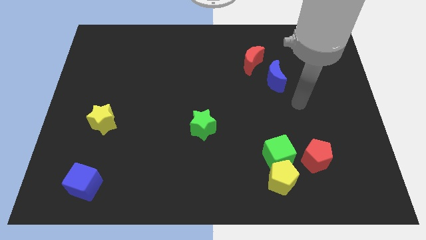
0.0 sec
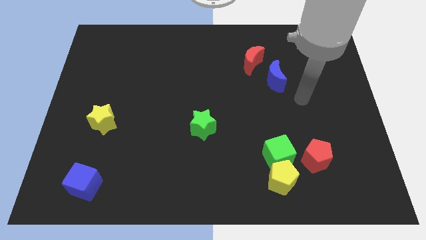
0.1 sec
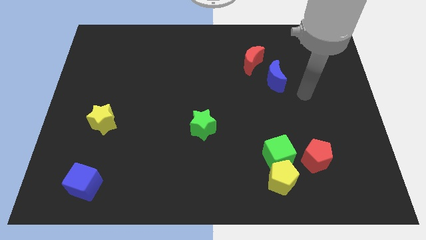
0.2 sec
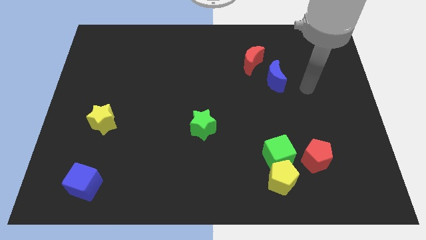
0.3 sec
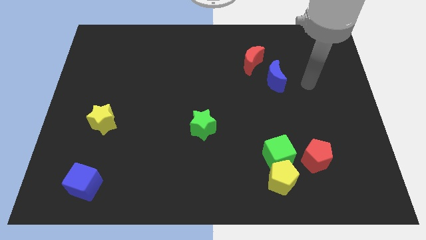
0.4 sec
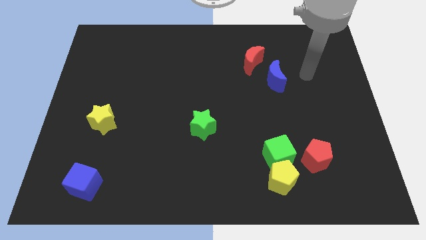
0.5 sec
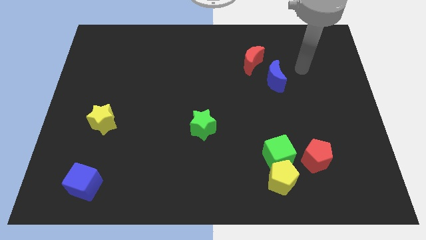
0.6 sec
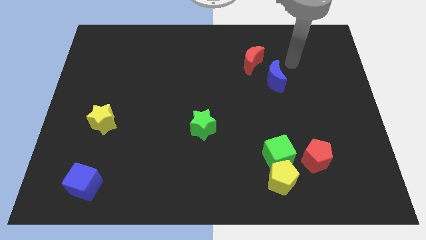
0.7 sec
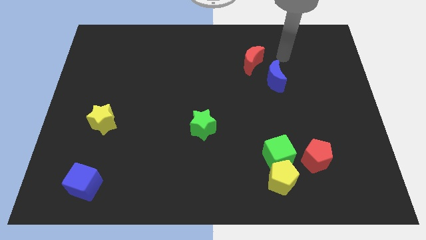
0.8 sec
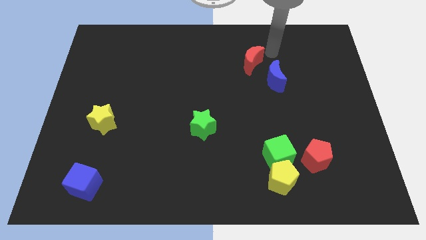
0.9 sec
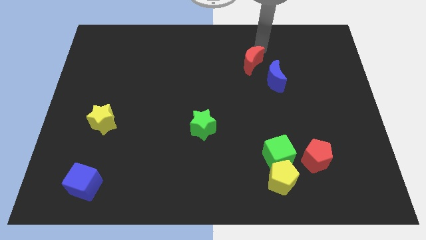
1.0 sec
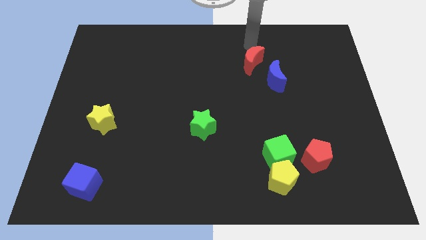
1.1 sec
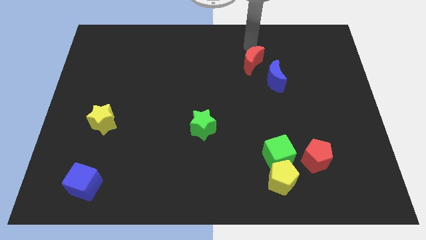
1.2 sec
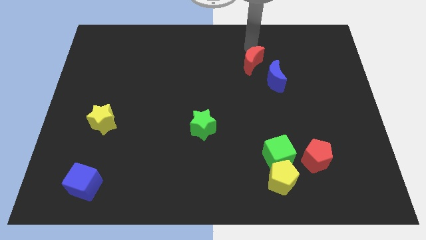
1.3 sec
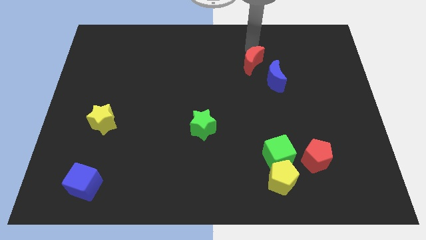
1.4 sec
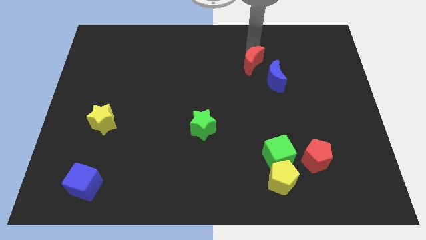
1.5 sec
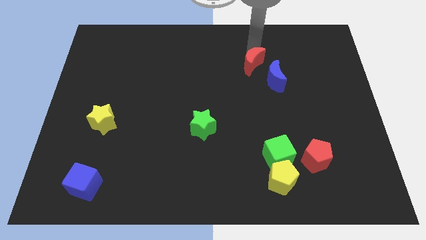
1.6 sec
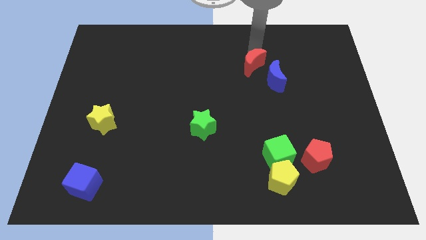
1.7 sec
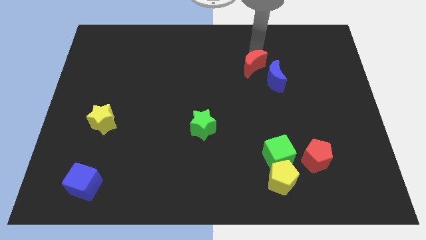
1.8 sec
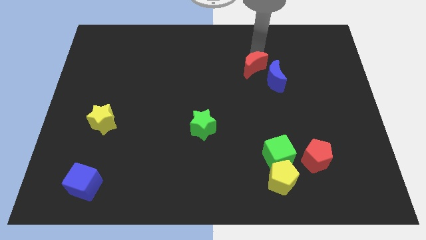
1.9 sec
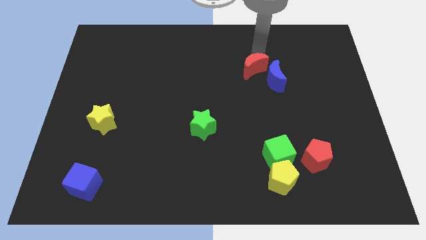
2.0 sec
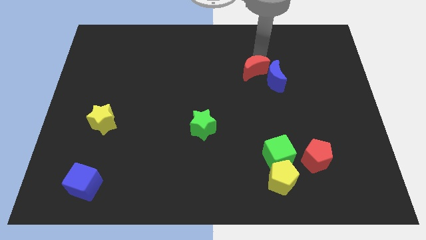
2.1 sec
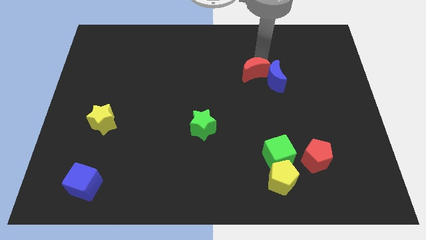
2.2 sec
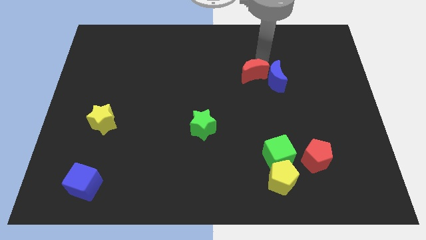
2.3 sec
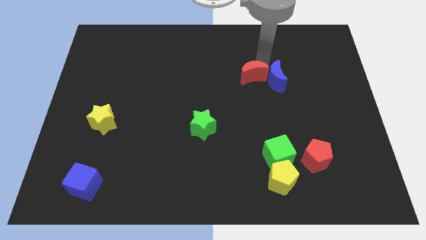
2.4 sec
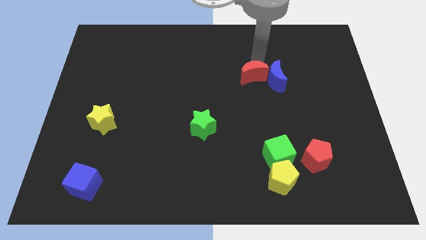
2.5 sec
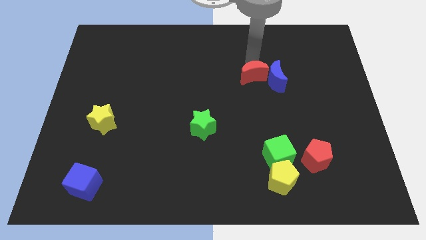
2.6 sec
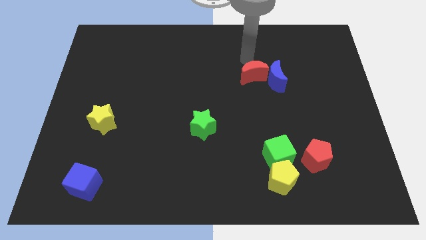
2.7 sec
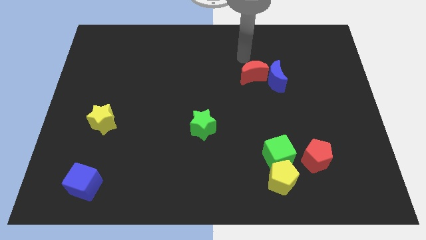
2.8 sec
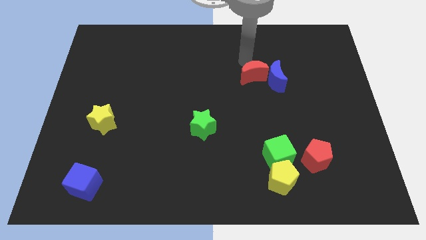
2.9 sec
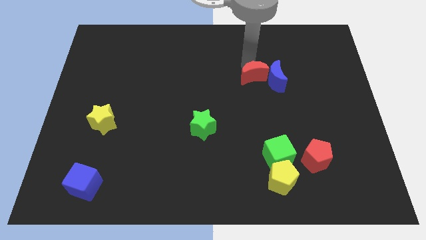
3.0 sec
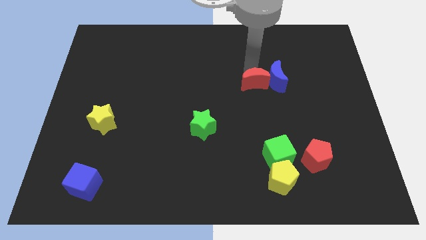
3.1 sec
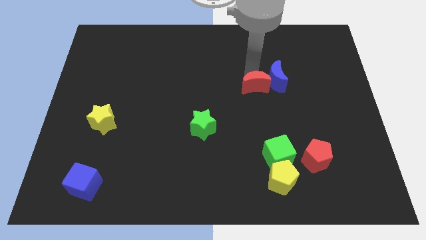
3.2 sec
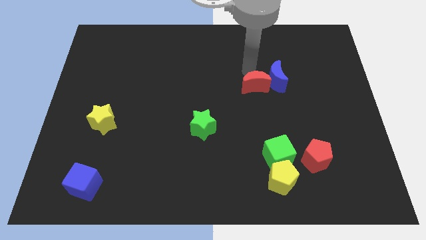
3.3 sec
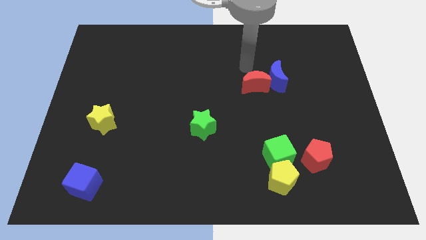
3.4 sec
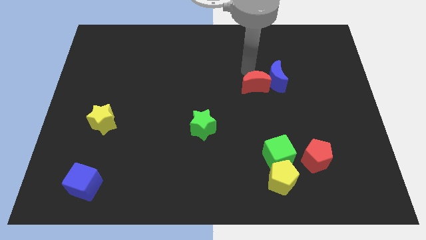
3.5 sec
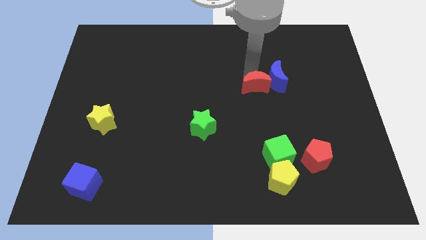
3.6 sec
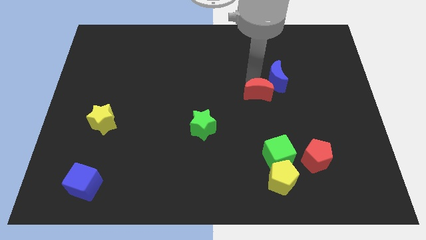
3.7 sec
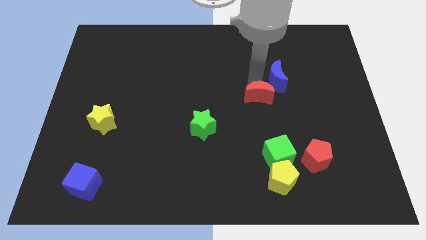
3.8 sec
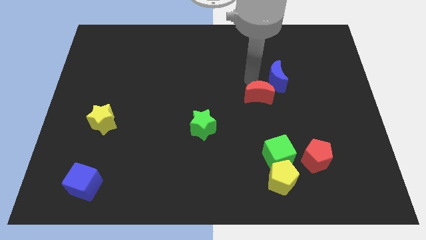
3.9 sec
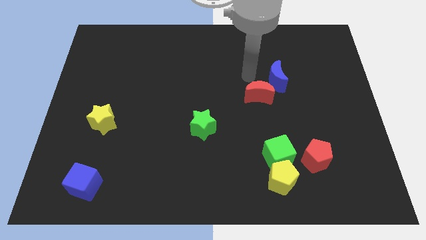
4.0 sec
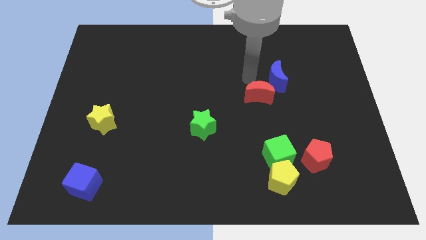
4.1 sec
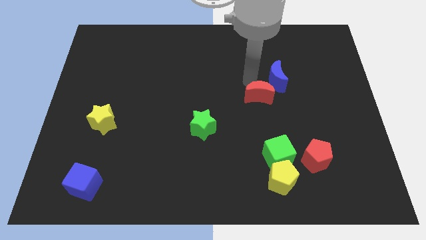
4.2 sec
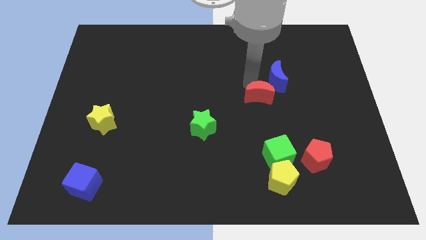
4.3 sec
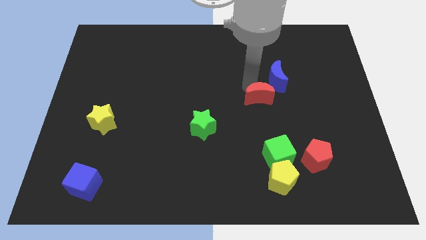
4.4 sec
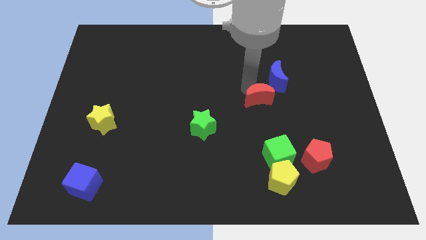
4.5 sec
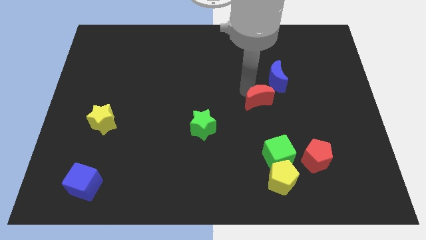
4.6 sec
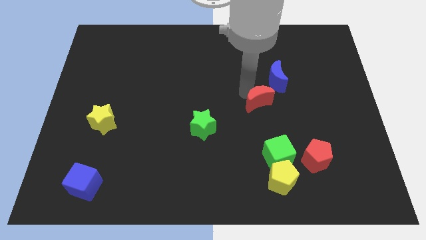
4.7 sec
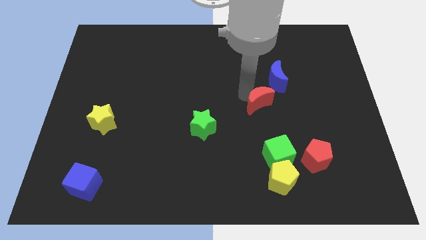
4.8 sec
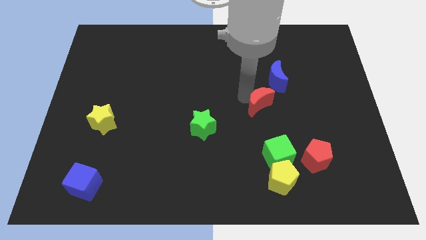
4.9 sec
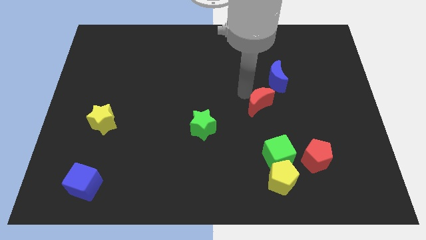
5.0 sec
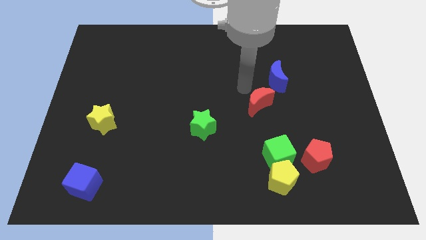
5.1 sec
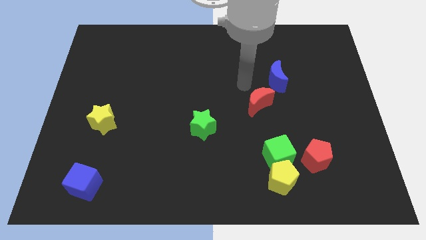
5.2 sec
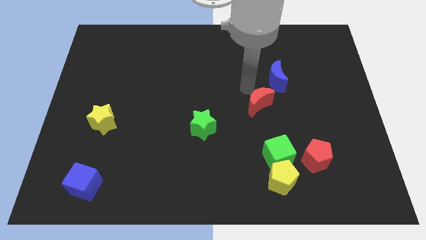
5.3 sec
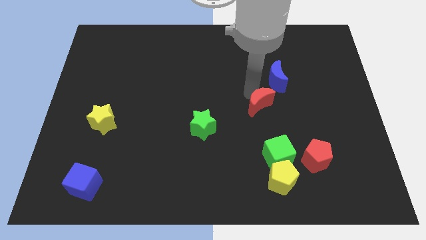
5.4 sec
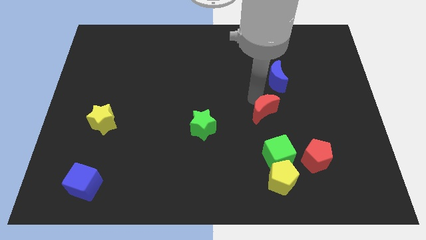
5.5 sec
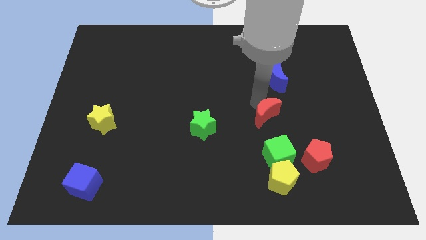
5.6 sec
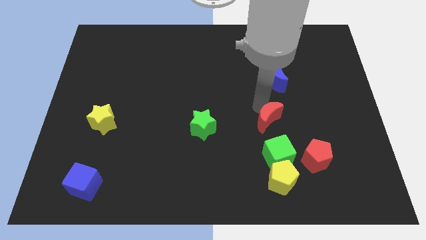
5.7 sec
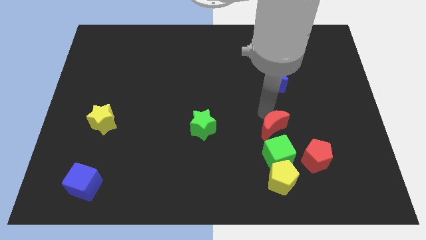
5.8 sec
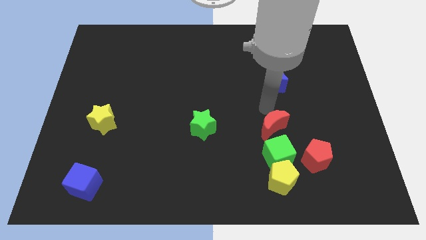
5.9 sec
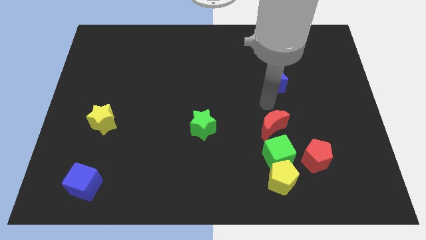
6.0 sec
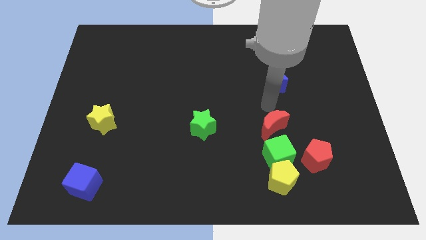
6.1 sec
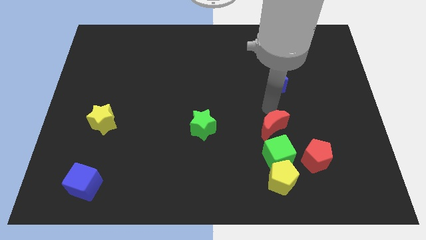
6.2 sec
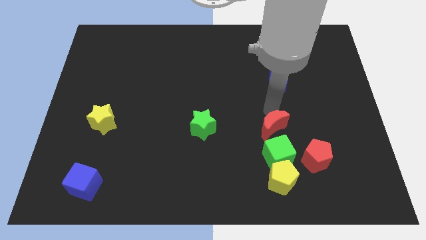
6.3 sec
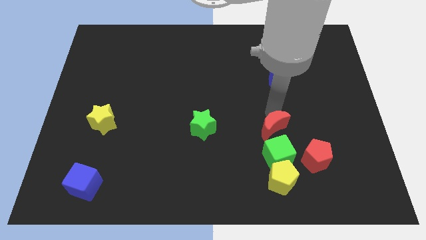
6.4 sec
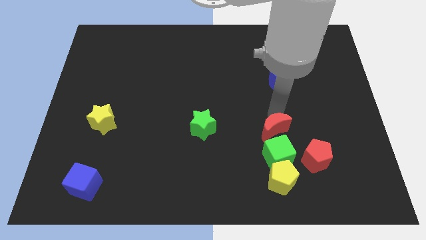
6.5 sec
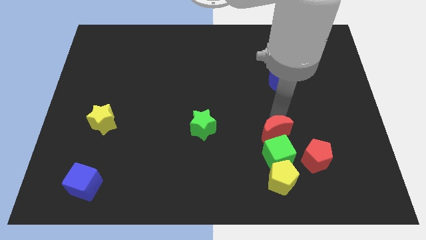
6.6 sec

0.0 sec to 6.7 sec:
put the red moon towards the green cube

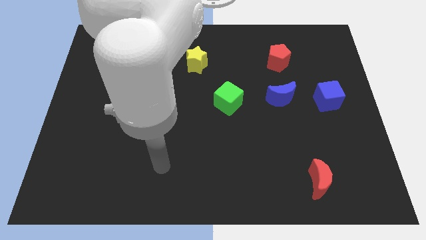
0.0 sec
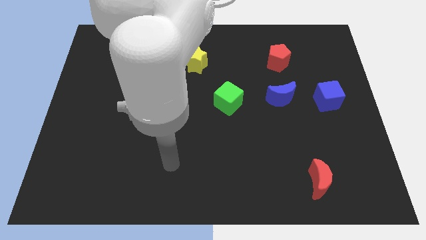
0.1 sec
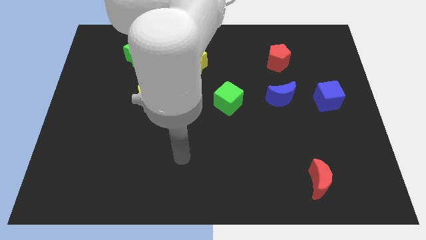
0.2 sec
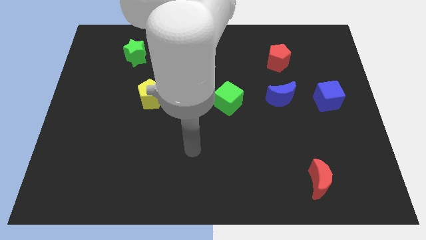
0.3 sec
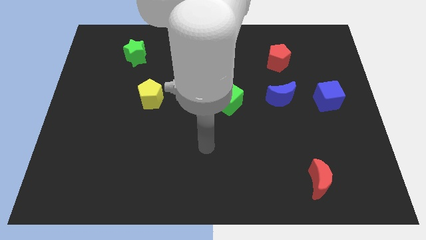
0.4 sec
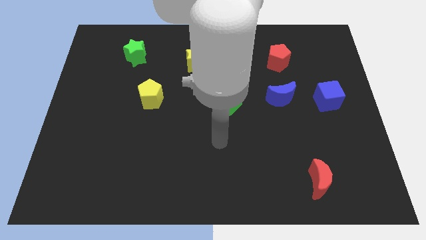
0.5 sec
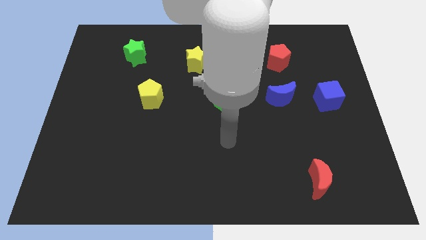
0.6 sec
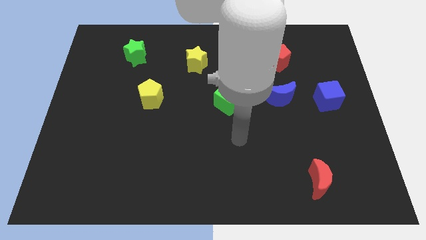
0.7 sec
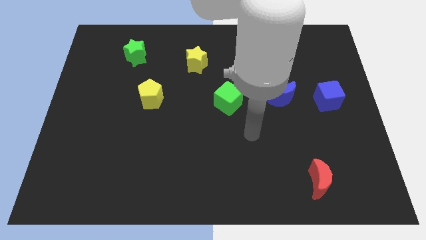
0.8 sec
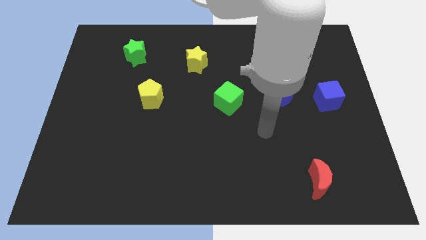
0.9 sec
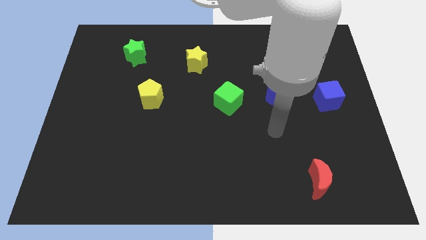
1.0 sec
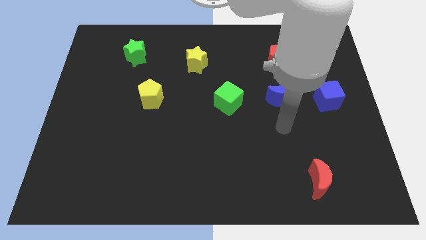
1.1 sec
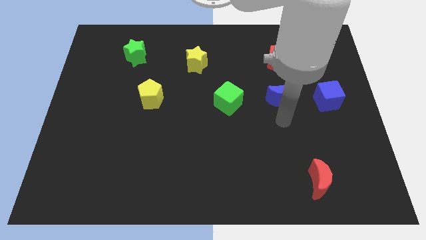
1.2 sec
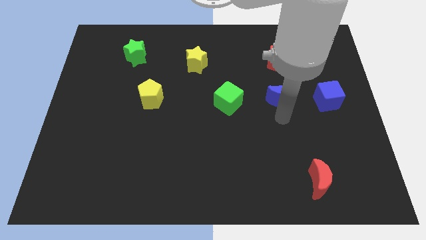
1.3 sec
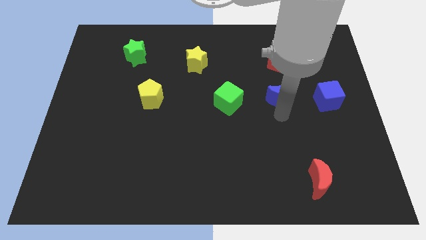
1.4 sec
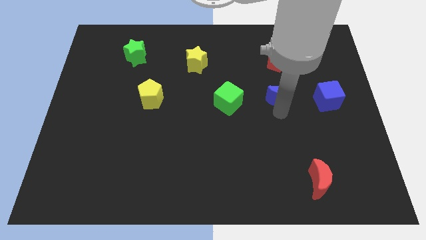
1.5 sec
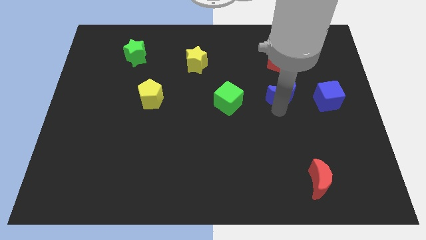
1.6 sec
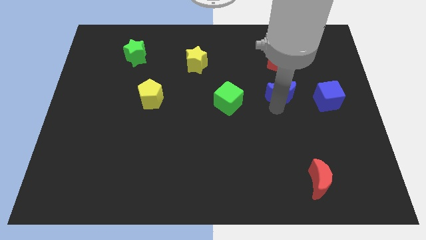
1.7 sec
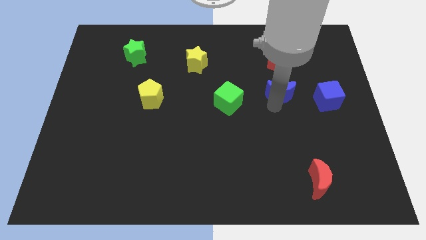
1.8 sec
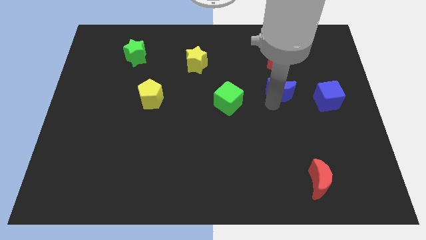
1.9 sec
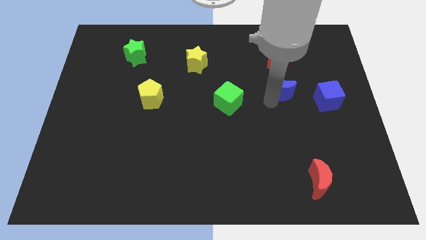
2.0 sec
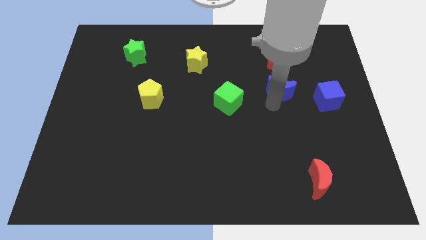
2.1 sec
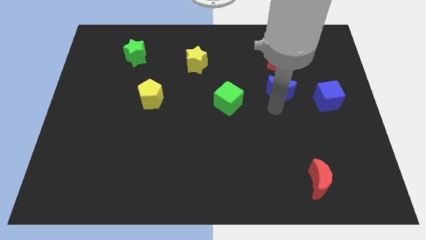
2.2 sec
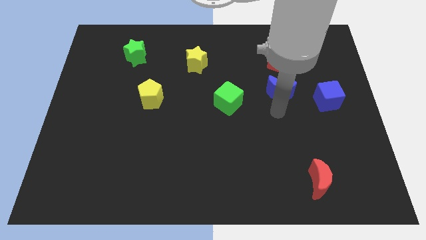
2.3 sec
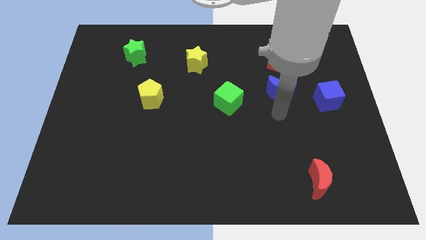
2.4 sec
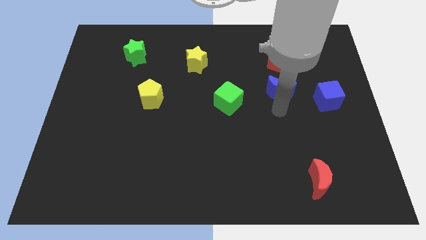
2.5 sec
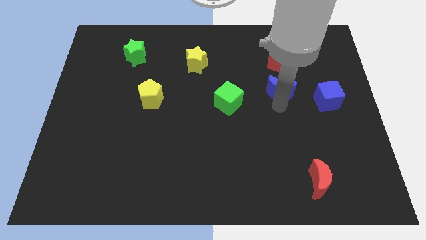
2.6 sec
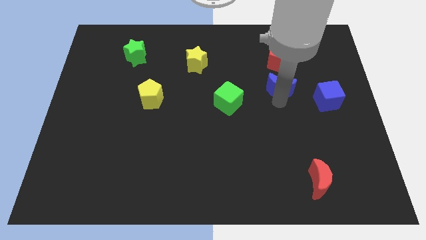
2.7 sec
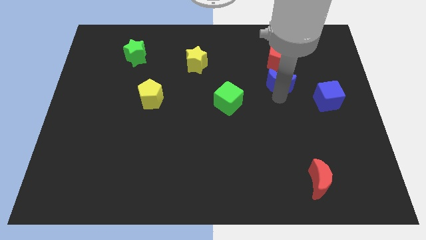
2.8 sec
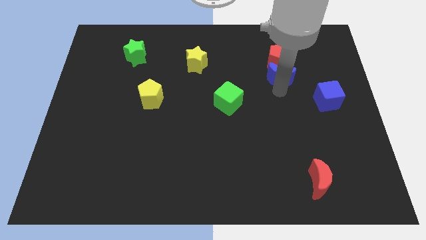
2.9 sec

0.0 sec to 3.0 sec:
push the blue moon to the red pentagon
